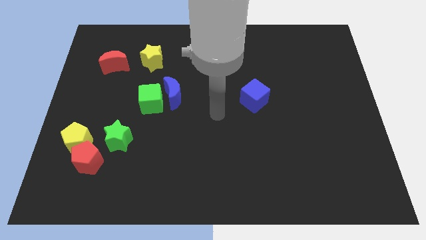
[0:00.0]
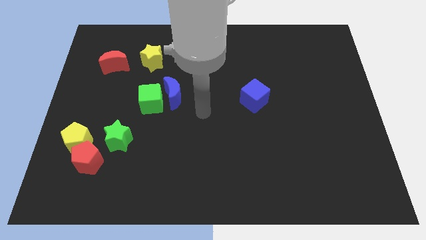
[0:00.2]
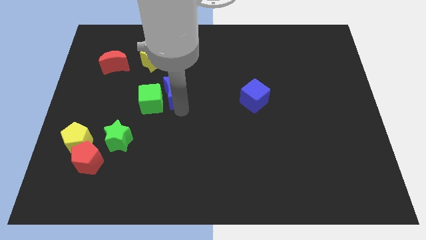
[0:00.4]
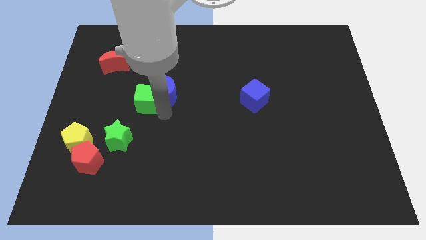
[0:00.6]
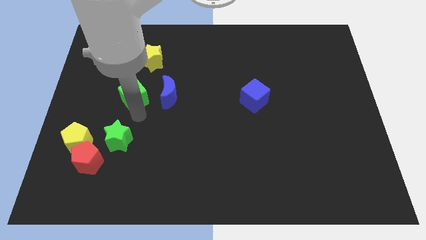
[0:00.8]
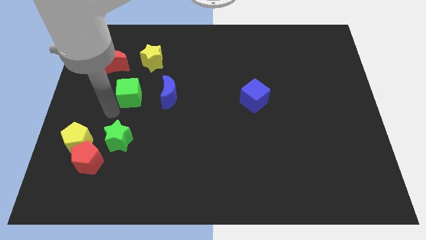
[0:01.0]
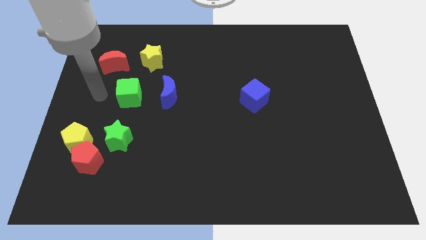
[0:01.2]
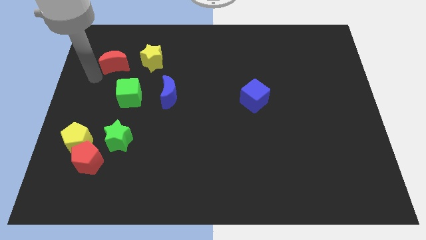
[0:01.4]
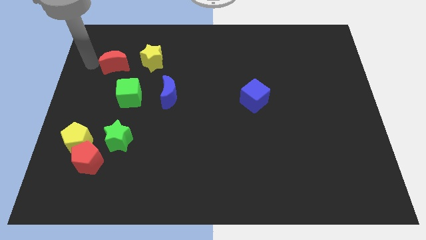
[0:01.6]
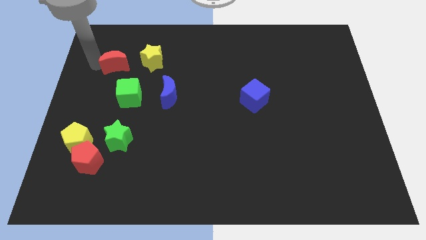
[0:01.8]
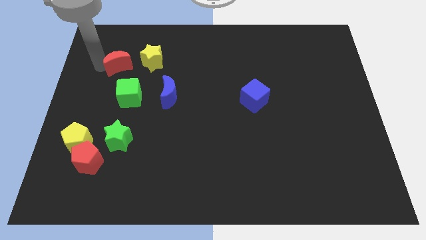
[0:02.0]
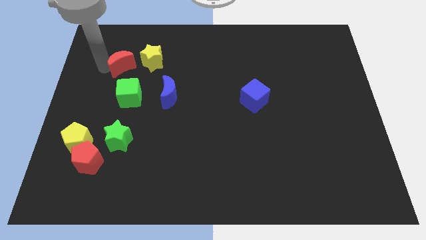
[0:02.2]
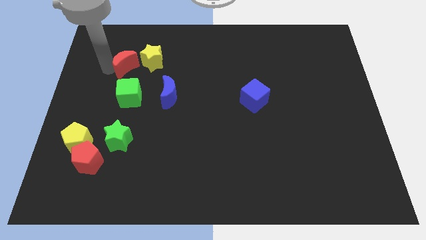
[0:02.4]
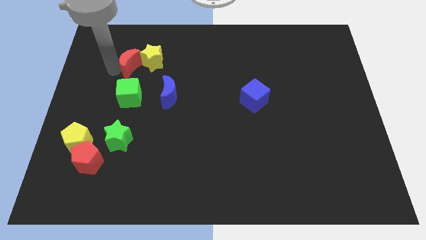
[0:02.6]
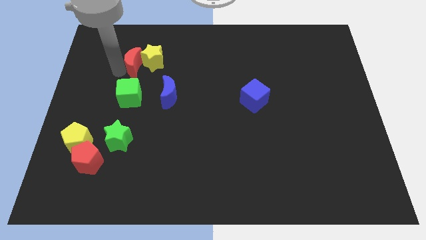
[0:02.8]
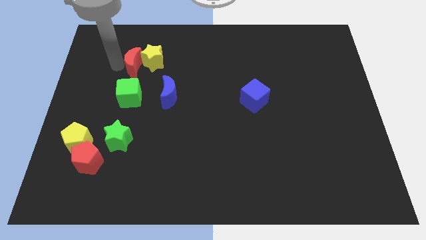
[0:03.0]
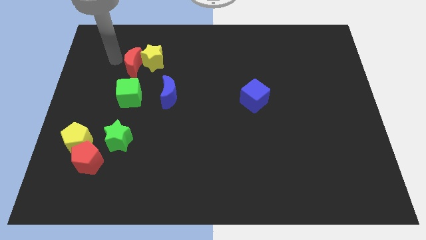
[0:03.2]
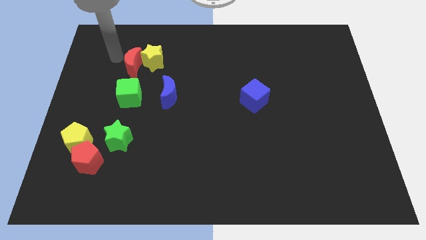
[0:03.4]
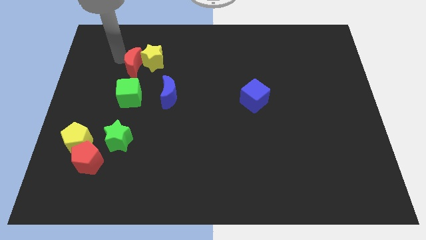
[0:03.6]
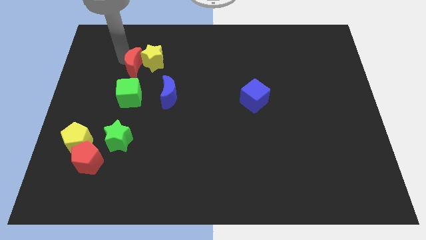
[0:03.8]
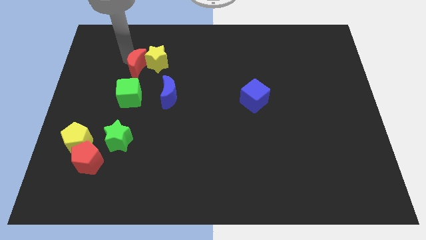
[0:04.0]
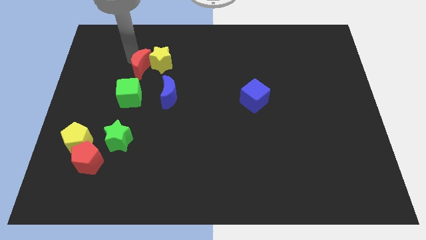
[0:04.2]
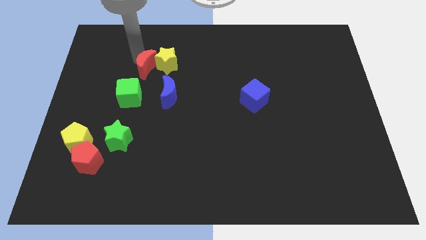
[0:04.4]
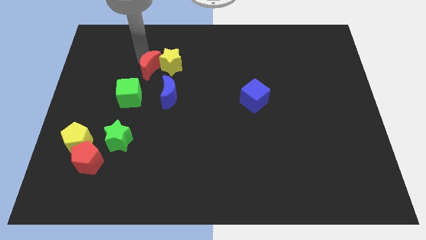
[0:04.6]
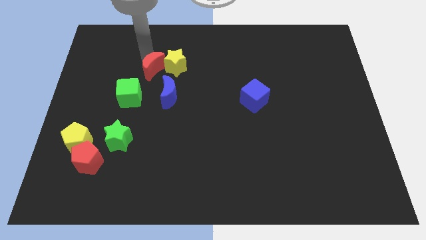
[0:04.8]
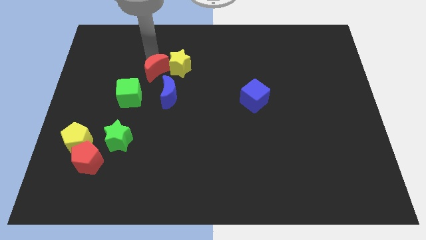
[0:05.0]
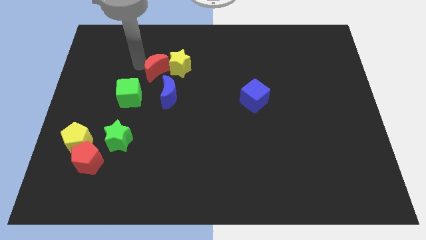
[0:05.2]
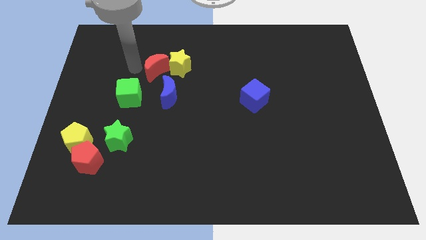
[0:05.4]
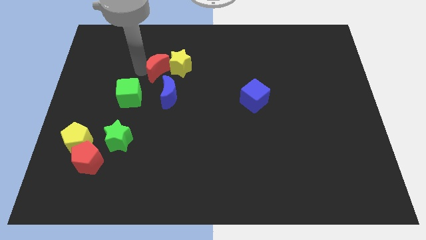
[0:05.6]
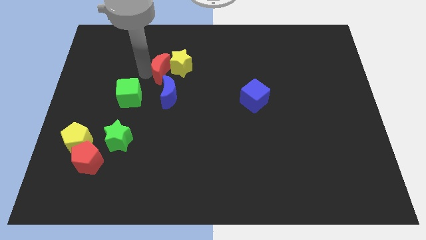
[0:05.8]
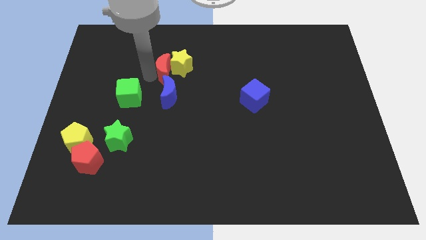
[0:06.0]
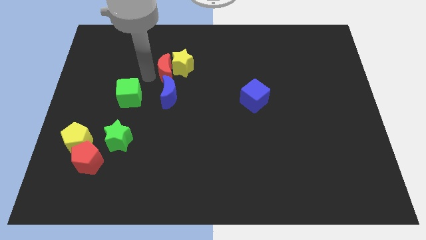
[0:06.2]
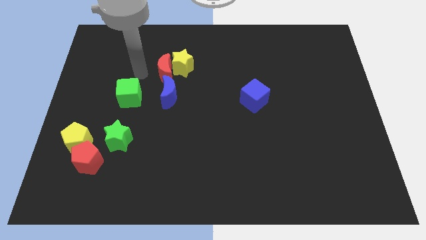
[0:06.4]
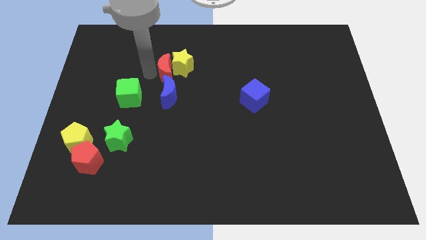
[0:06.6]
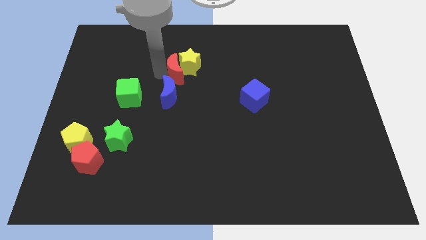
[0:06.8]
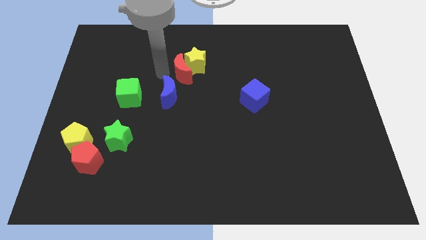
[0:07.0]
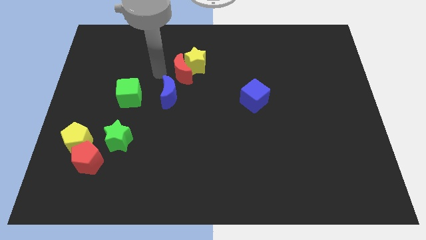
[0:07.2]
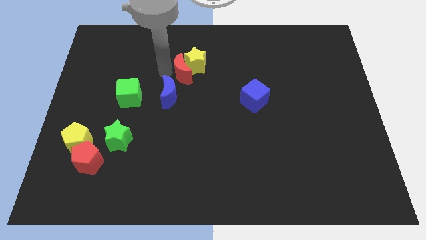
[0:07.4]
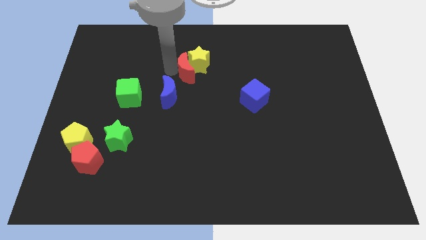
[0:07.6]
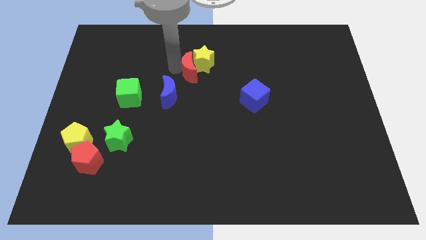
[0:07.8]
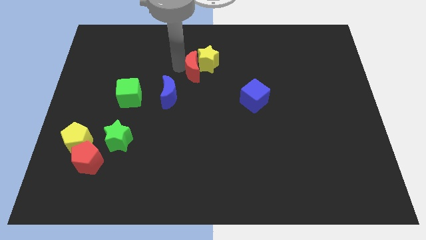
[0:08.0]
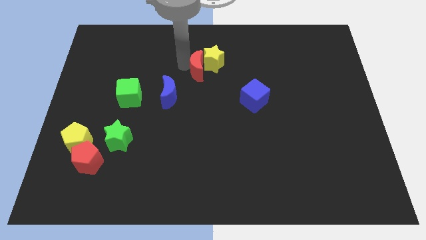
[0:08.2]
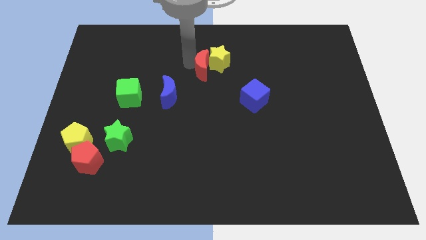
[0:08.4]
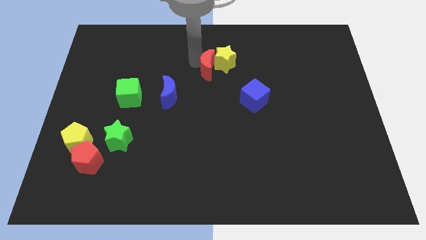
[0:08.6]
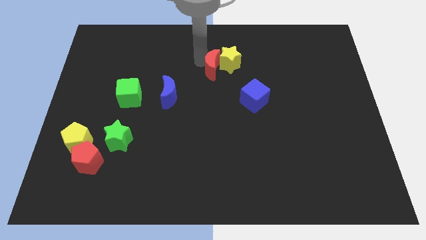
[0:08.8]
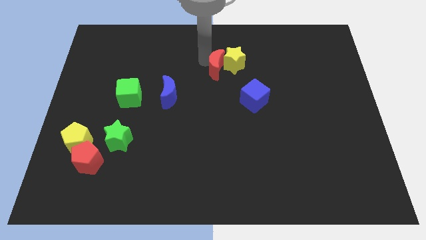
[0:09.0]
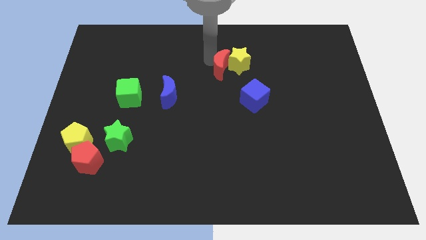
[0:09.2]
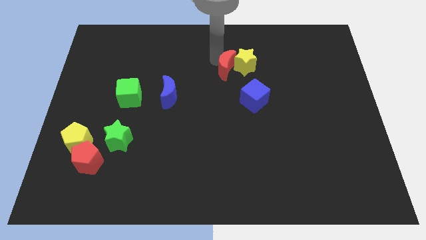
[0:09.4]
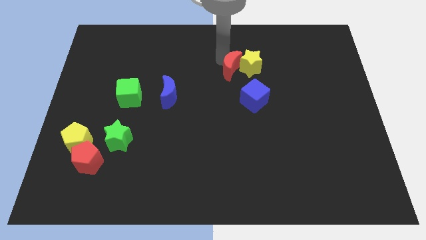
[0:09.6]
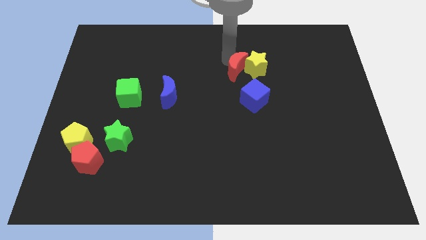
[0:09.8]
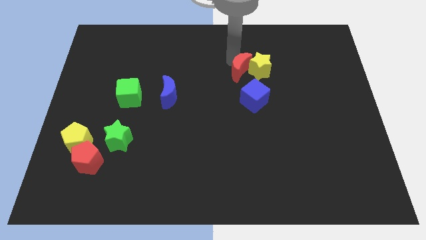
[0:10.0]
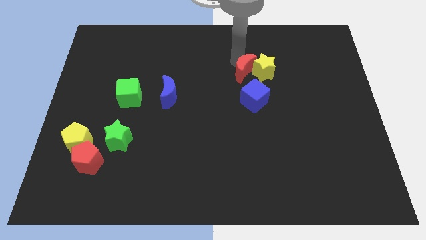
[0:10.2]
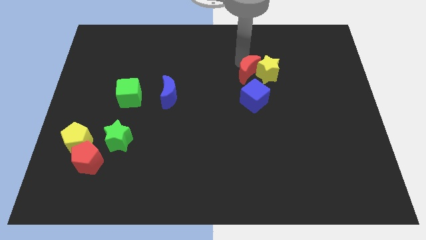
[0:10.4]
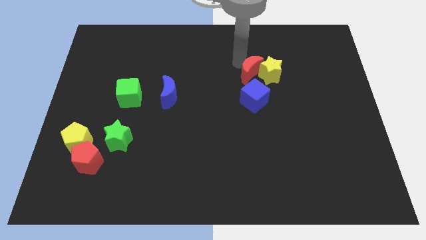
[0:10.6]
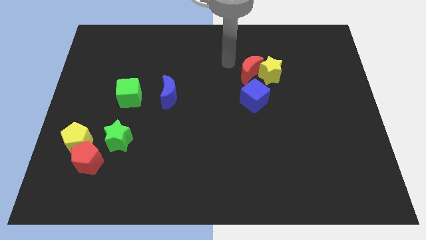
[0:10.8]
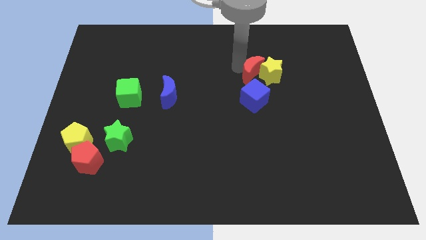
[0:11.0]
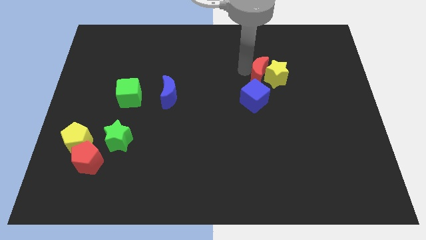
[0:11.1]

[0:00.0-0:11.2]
move the red moon to the top right of the blue cube
